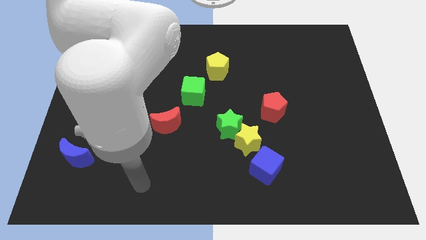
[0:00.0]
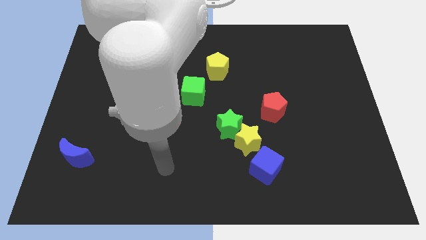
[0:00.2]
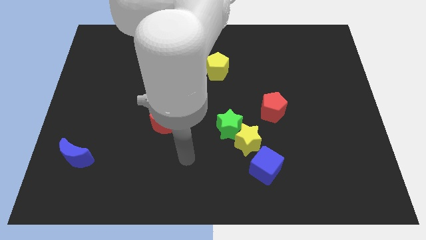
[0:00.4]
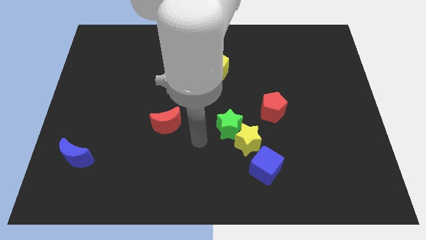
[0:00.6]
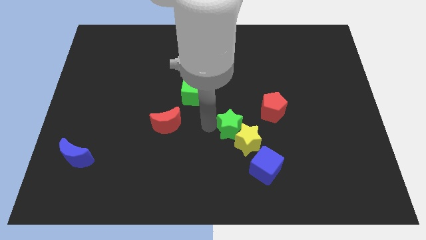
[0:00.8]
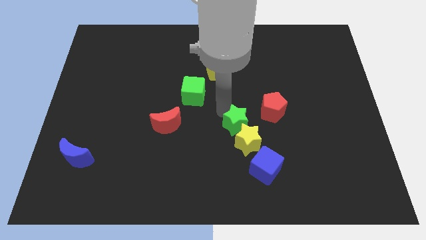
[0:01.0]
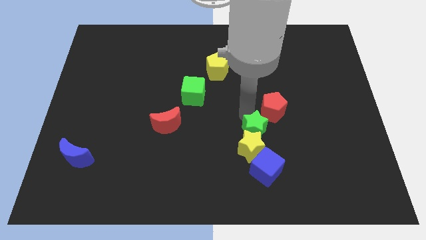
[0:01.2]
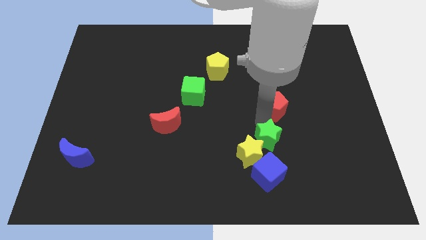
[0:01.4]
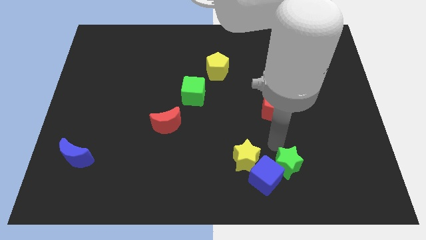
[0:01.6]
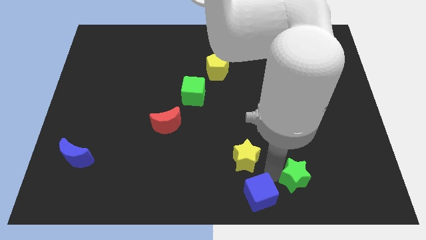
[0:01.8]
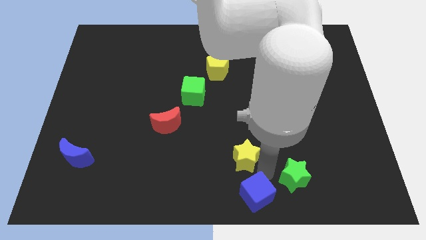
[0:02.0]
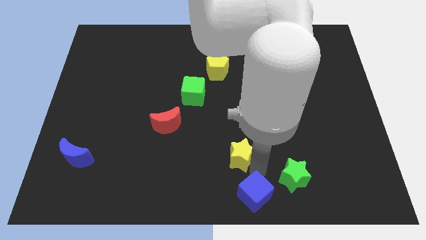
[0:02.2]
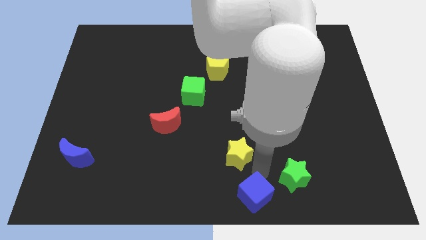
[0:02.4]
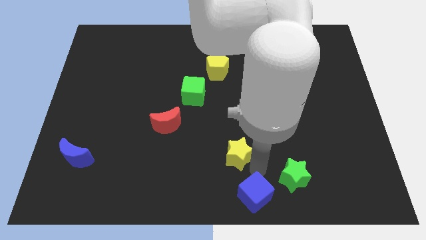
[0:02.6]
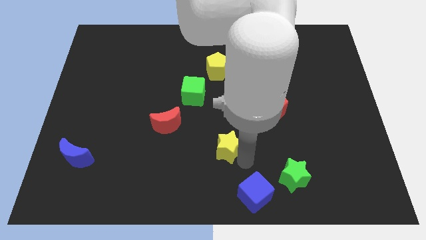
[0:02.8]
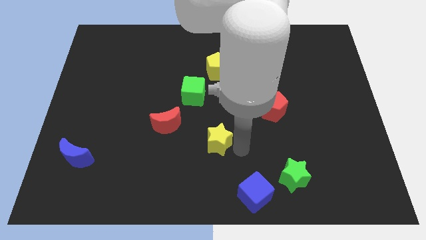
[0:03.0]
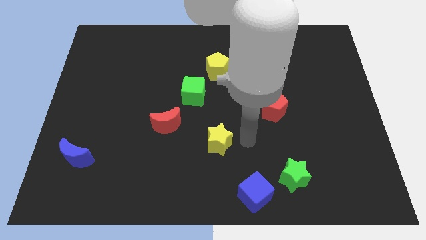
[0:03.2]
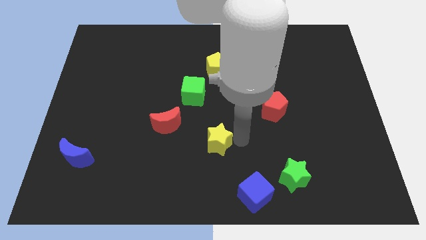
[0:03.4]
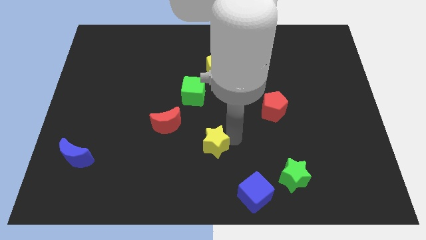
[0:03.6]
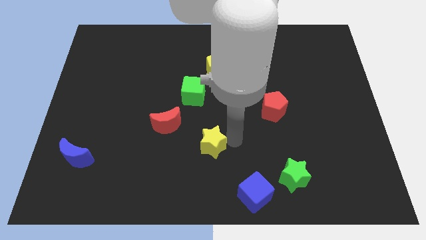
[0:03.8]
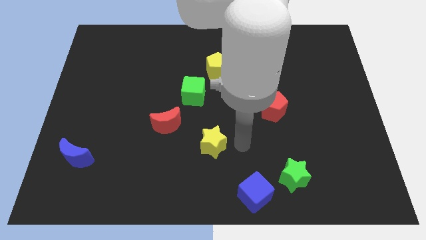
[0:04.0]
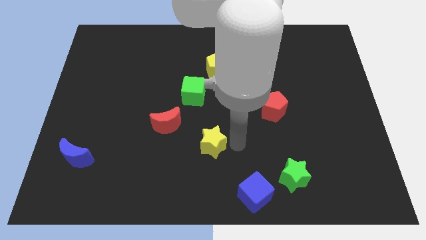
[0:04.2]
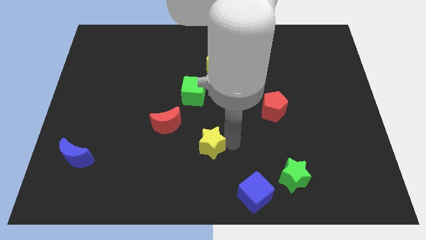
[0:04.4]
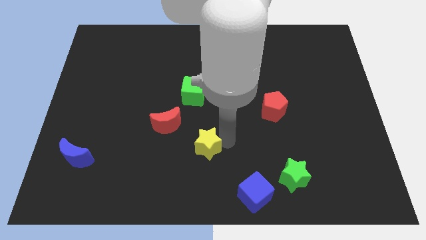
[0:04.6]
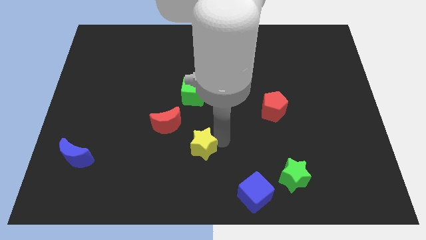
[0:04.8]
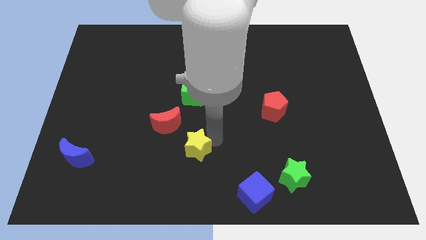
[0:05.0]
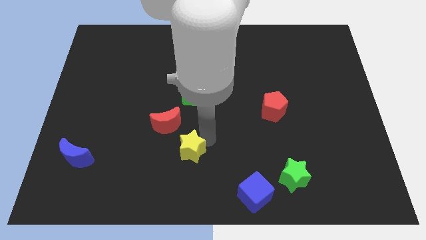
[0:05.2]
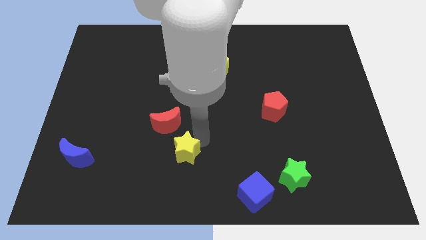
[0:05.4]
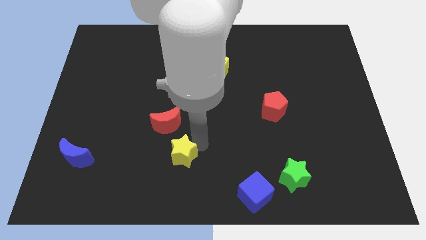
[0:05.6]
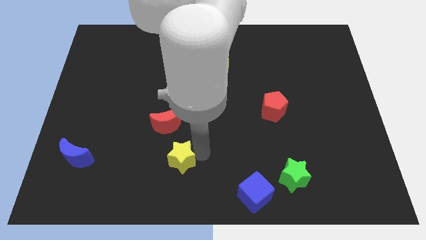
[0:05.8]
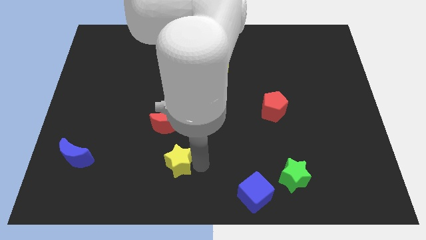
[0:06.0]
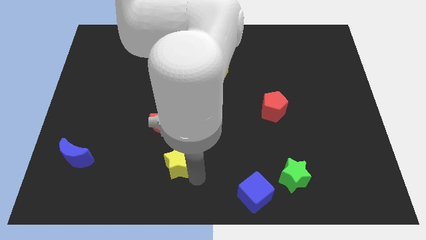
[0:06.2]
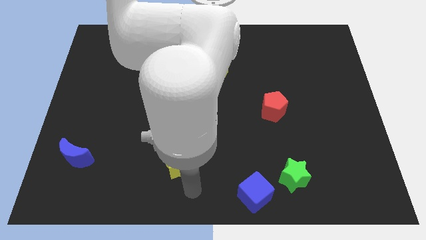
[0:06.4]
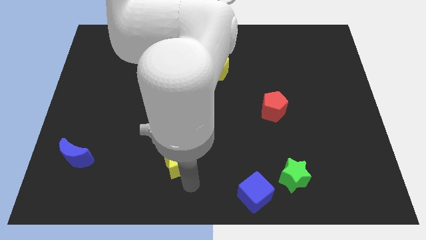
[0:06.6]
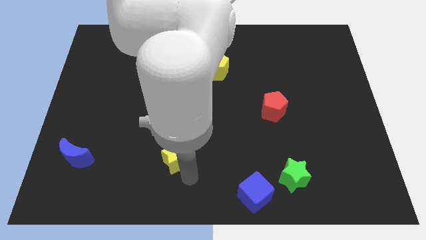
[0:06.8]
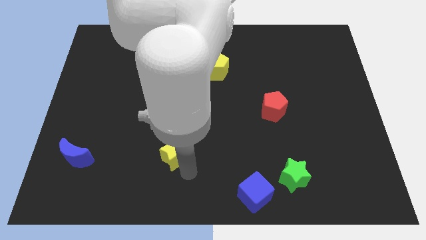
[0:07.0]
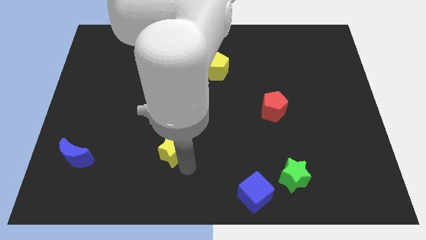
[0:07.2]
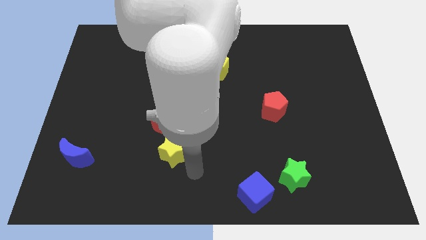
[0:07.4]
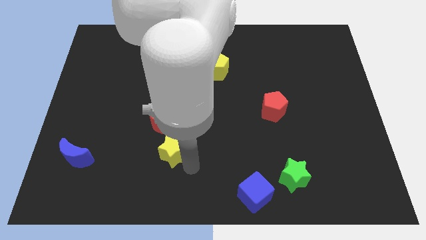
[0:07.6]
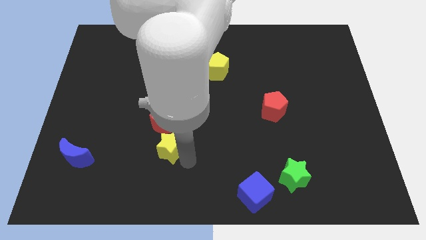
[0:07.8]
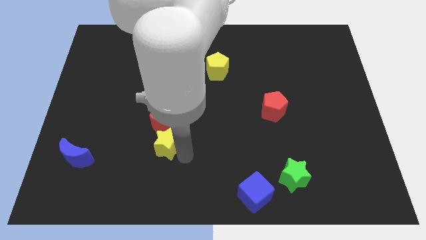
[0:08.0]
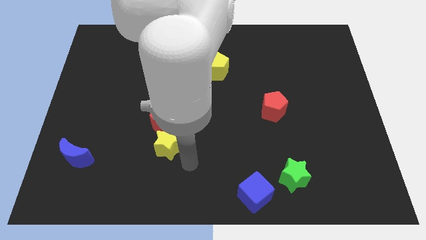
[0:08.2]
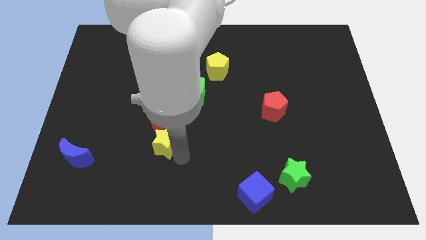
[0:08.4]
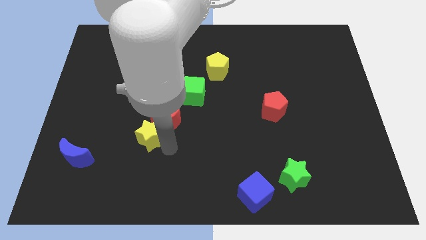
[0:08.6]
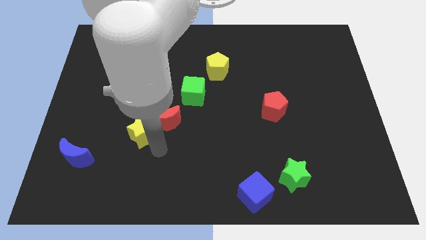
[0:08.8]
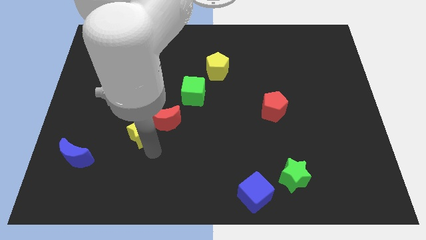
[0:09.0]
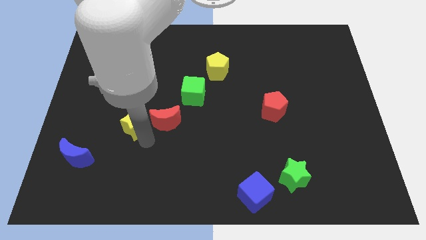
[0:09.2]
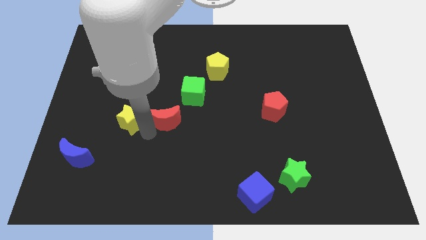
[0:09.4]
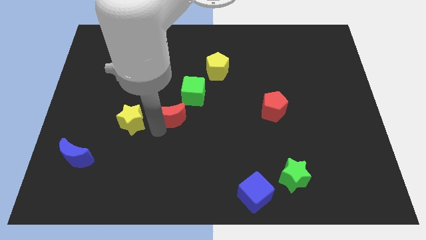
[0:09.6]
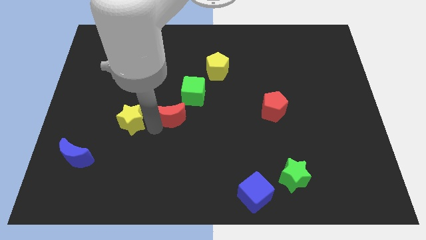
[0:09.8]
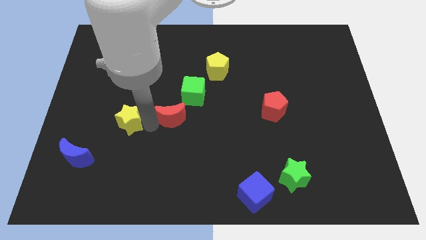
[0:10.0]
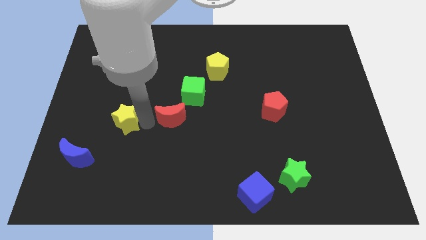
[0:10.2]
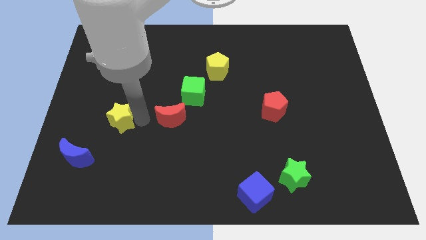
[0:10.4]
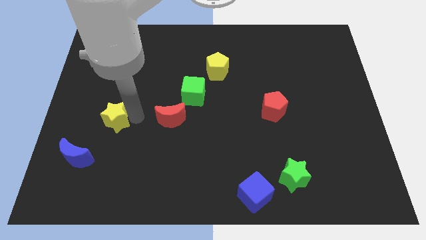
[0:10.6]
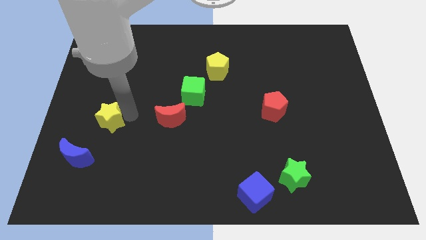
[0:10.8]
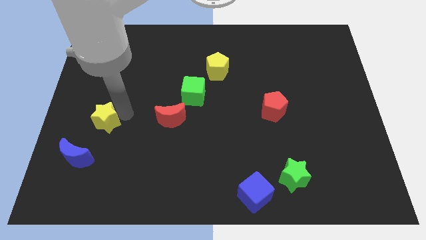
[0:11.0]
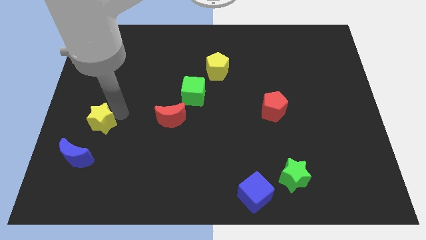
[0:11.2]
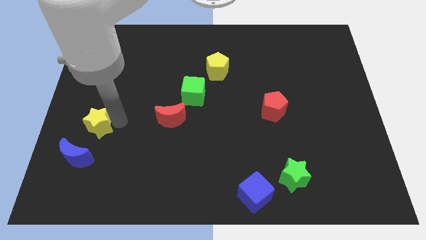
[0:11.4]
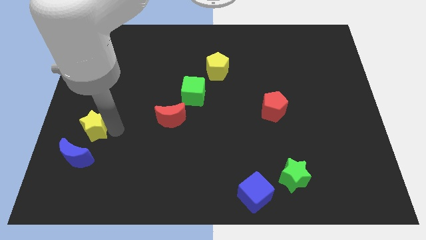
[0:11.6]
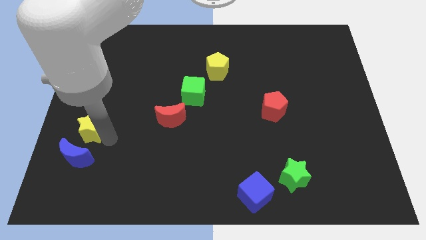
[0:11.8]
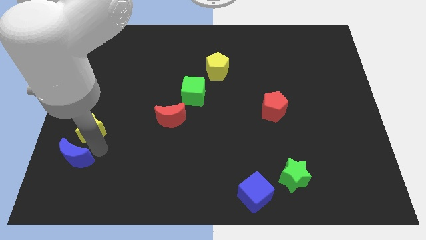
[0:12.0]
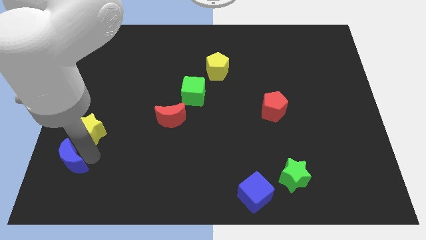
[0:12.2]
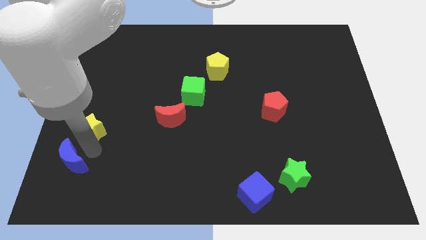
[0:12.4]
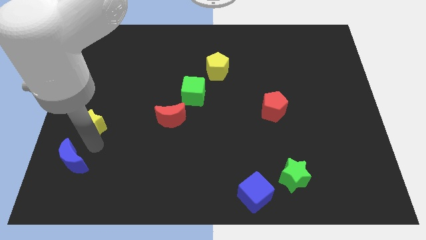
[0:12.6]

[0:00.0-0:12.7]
put the yellow star to the left side of the board

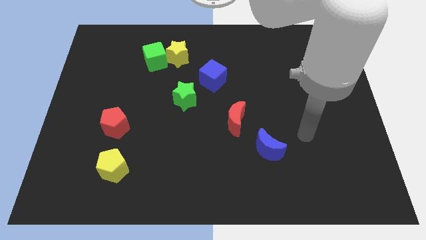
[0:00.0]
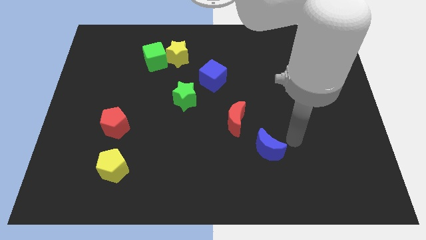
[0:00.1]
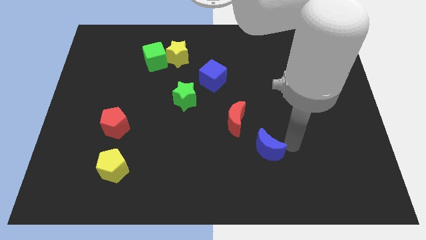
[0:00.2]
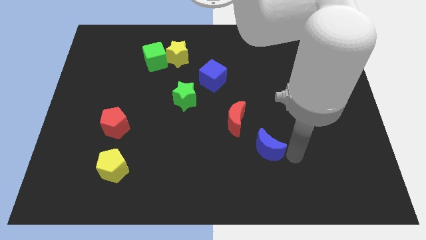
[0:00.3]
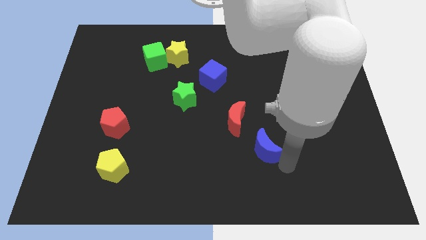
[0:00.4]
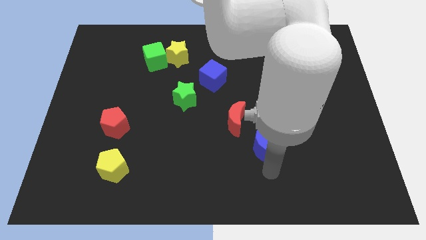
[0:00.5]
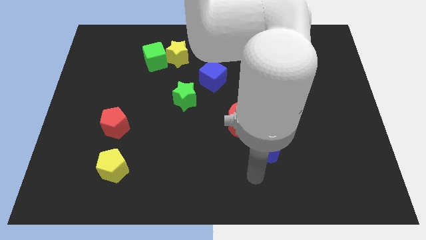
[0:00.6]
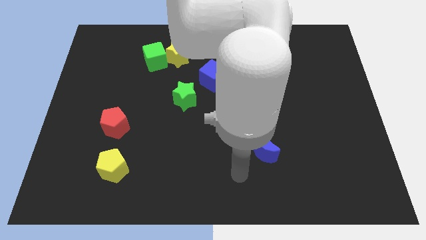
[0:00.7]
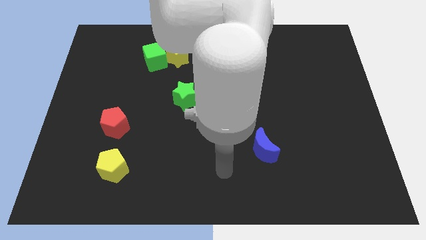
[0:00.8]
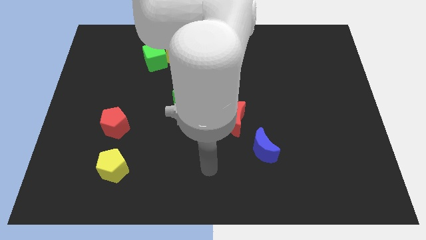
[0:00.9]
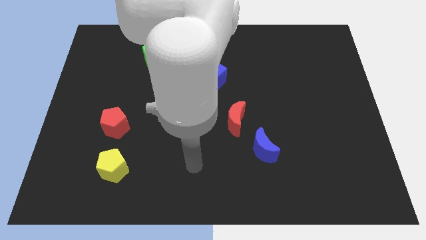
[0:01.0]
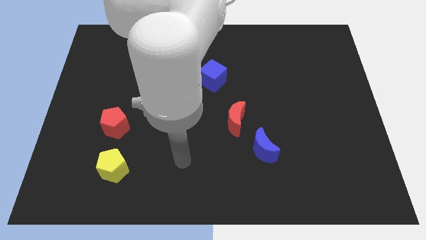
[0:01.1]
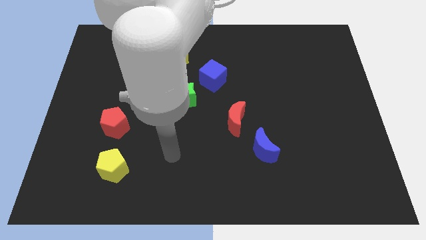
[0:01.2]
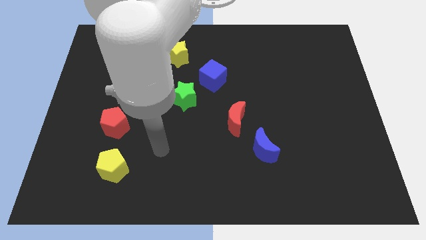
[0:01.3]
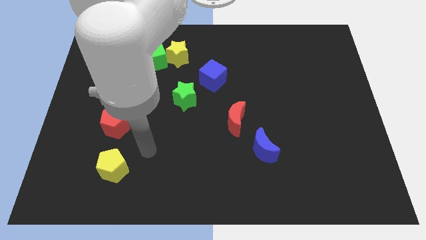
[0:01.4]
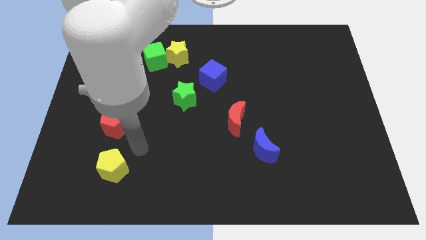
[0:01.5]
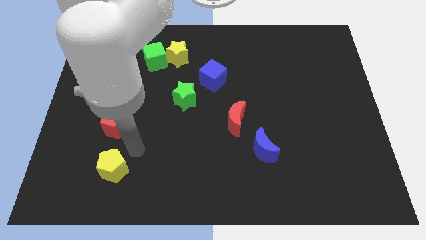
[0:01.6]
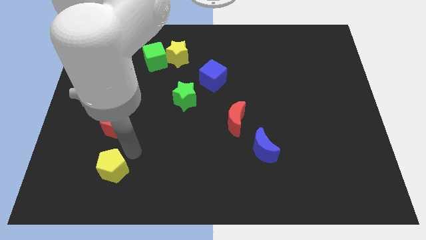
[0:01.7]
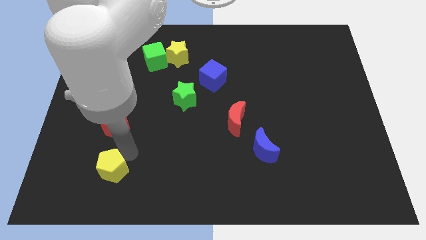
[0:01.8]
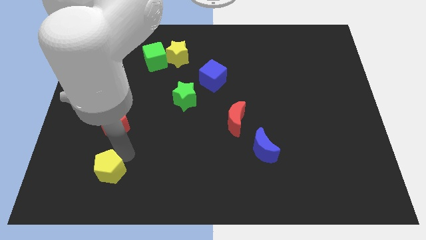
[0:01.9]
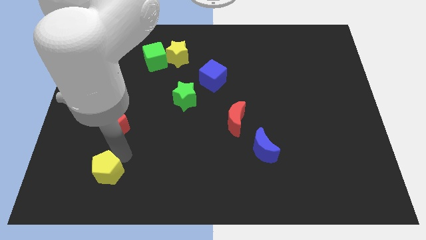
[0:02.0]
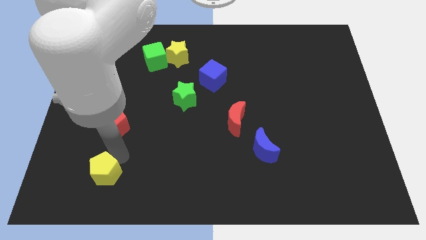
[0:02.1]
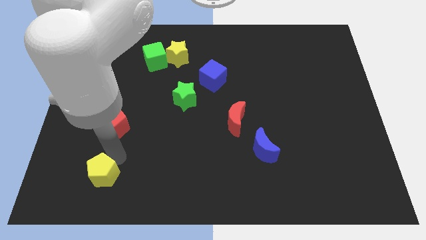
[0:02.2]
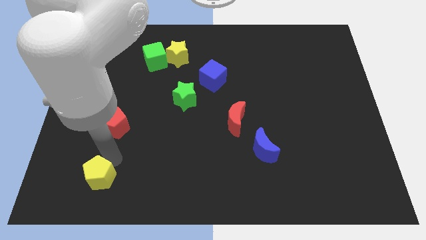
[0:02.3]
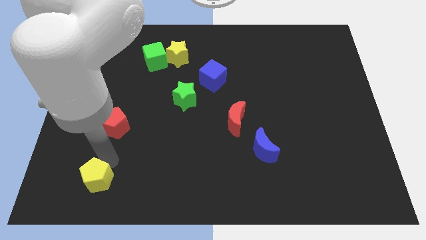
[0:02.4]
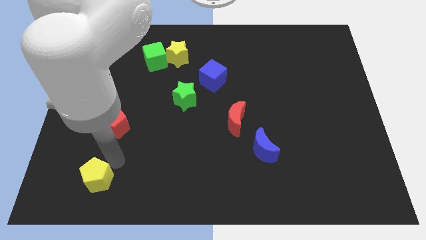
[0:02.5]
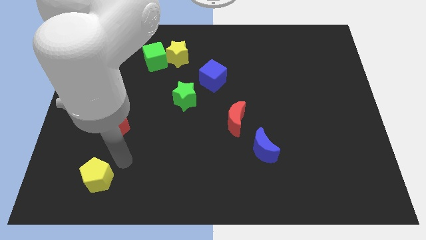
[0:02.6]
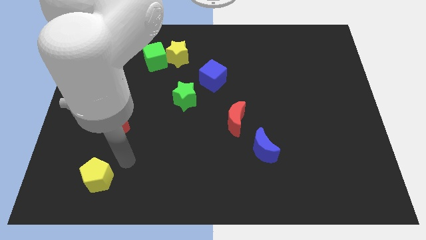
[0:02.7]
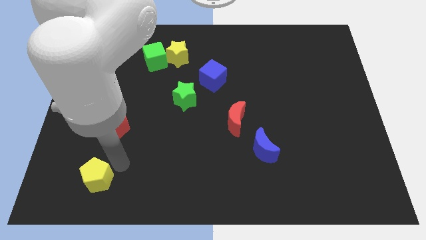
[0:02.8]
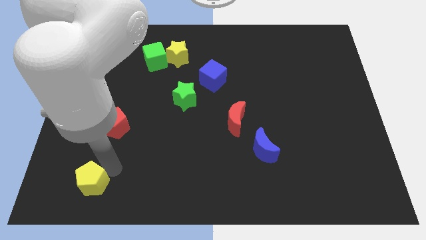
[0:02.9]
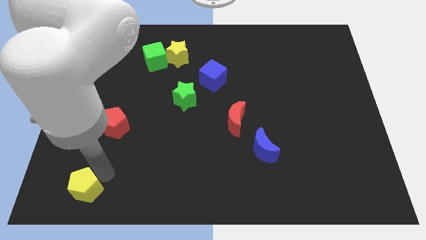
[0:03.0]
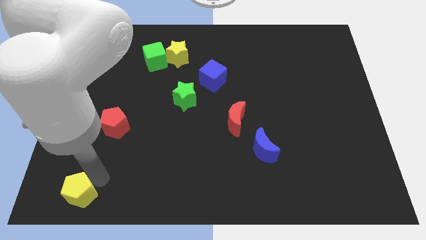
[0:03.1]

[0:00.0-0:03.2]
move the yellow pentagon to the bottom left of the board
